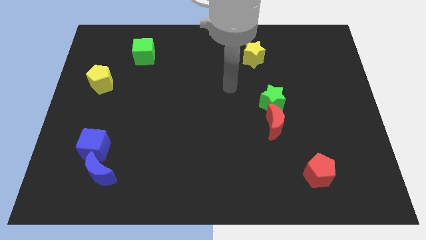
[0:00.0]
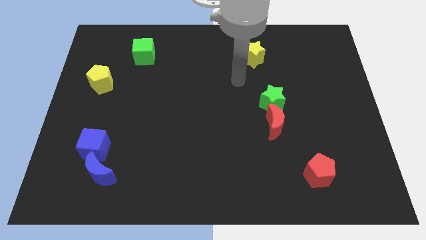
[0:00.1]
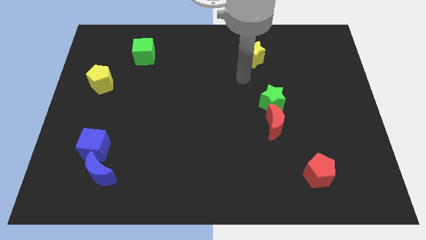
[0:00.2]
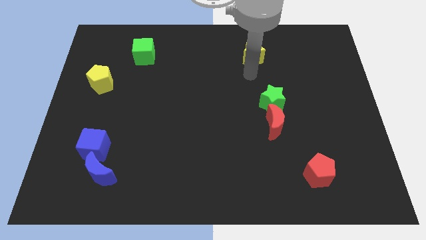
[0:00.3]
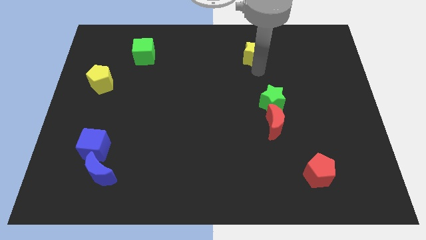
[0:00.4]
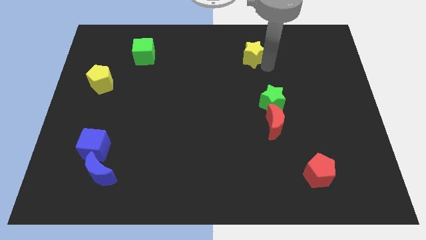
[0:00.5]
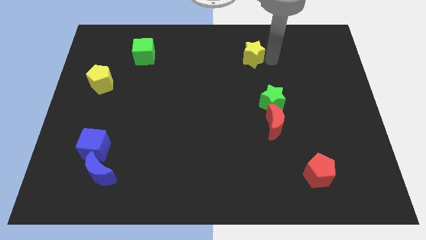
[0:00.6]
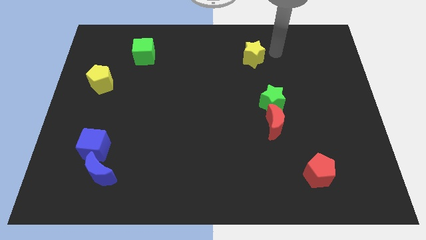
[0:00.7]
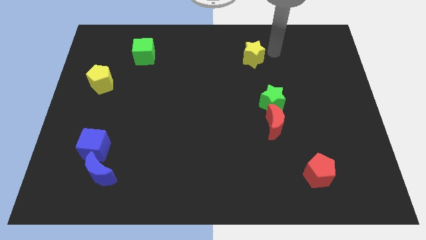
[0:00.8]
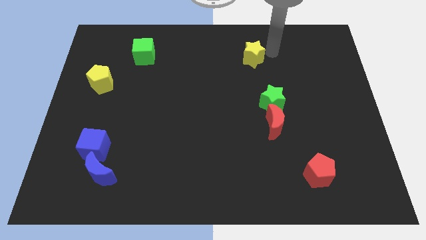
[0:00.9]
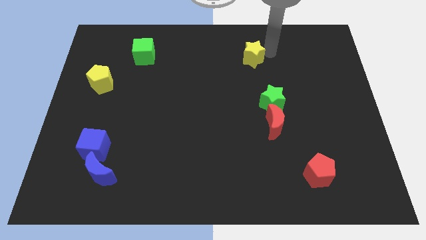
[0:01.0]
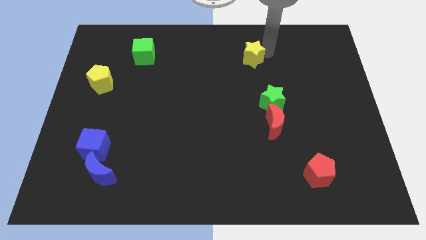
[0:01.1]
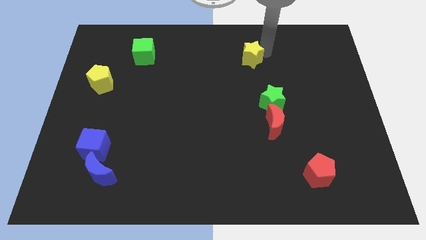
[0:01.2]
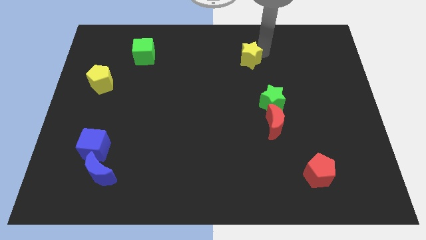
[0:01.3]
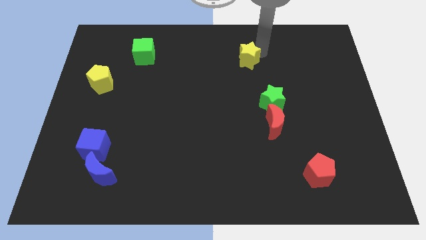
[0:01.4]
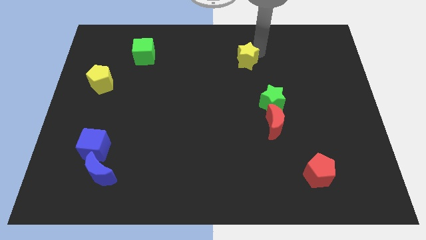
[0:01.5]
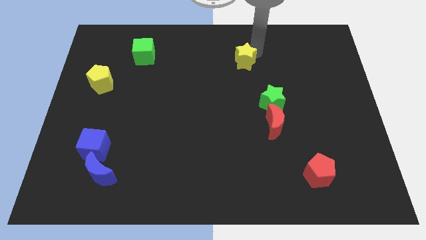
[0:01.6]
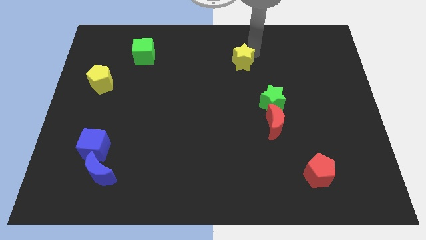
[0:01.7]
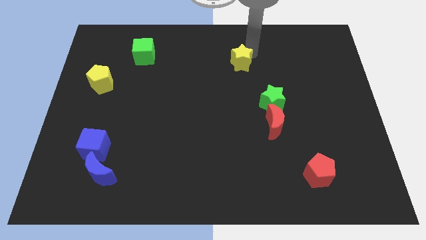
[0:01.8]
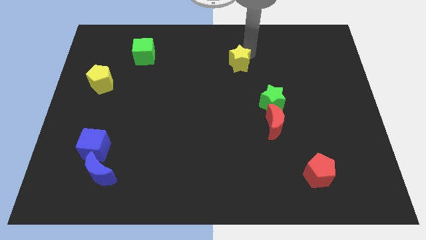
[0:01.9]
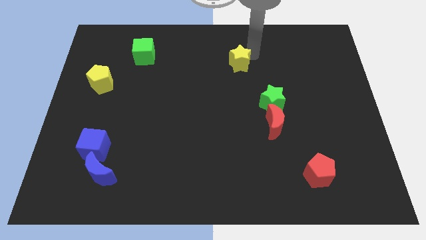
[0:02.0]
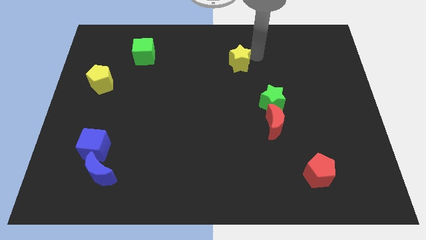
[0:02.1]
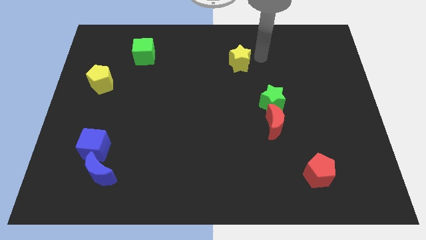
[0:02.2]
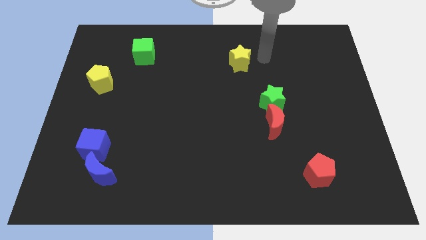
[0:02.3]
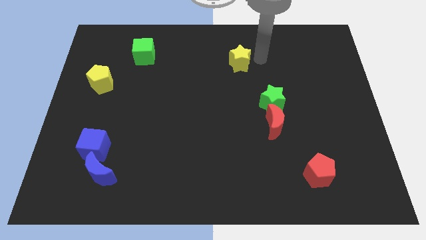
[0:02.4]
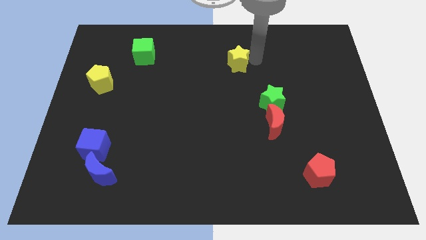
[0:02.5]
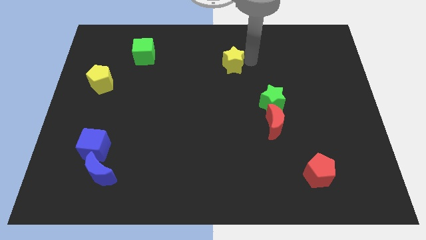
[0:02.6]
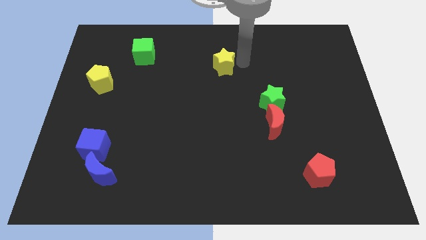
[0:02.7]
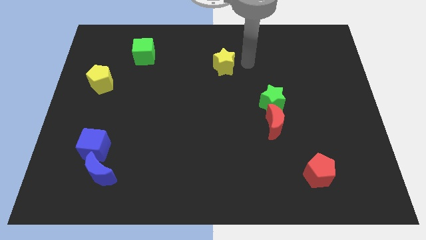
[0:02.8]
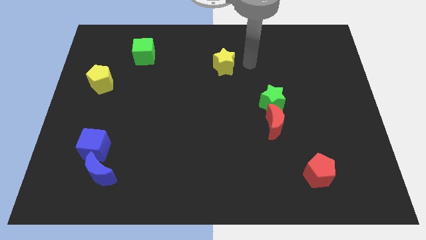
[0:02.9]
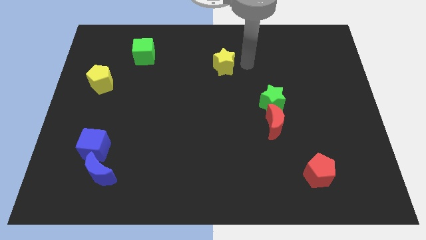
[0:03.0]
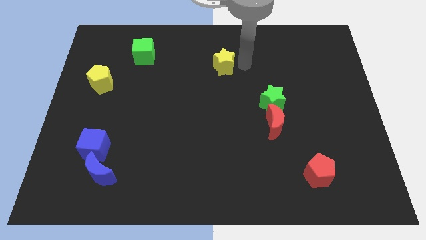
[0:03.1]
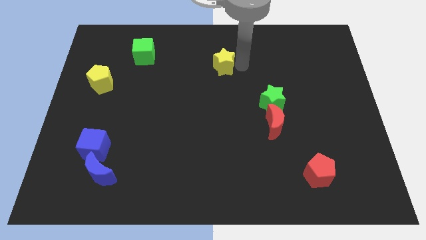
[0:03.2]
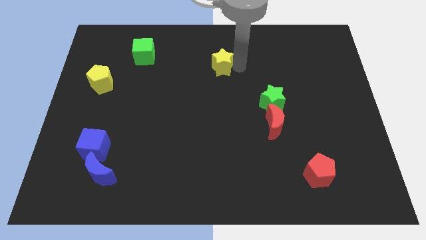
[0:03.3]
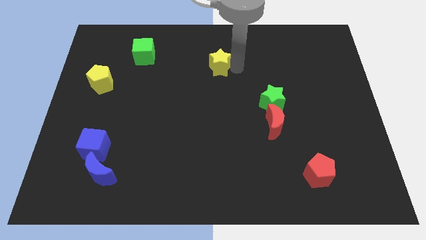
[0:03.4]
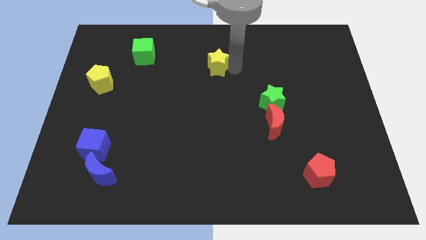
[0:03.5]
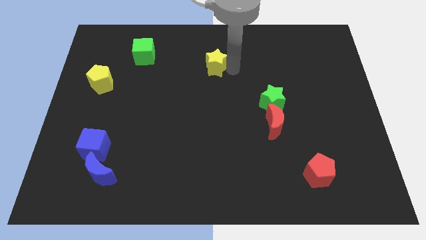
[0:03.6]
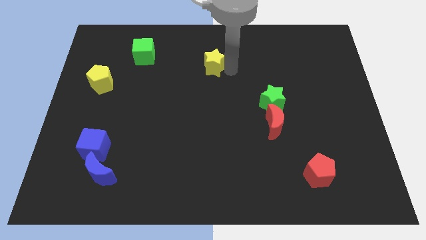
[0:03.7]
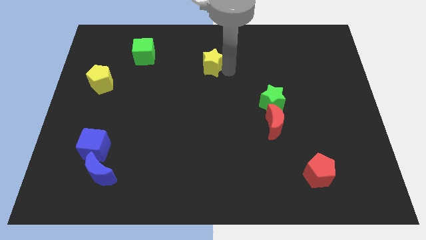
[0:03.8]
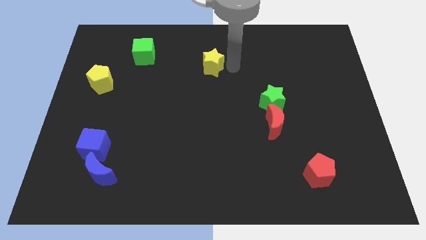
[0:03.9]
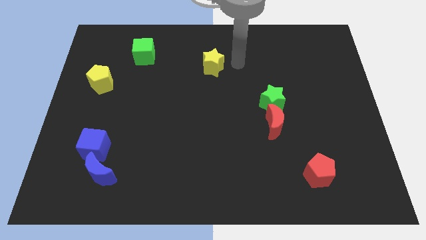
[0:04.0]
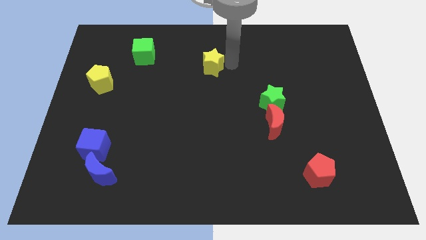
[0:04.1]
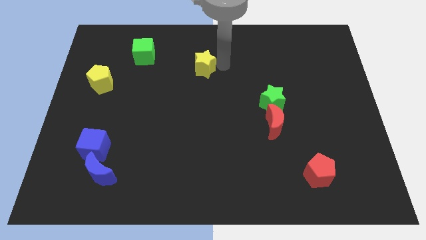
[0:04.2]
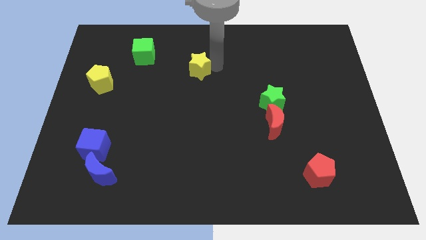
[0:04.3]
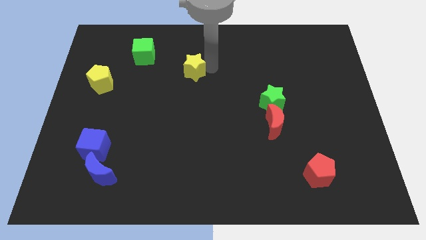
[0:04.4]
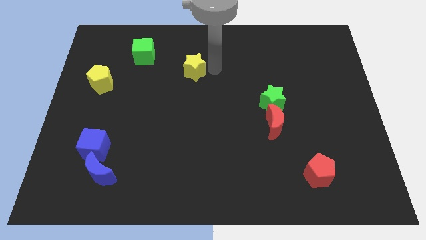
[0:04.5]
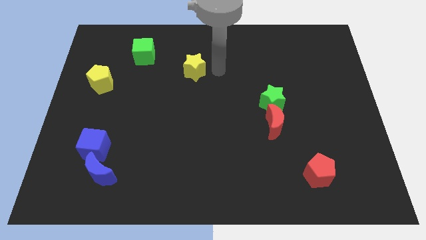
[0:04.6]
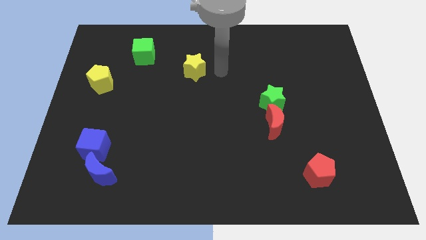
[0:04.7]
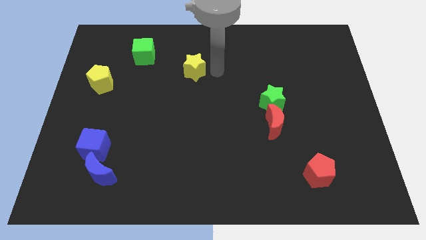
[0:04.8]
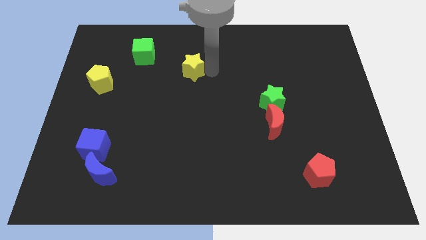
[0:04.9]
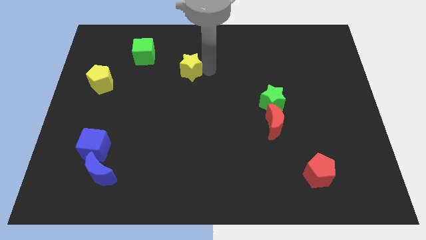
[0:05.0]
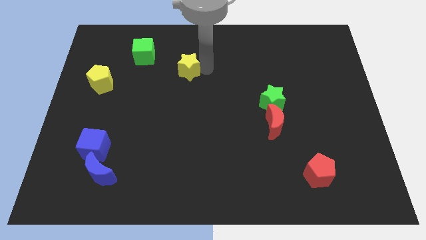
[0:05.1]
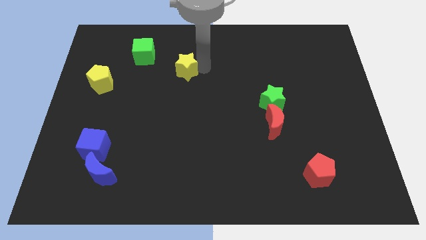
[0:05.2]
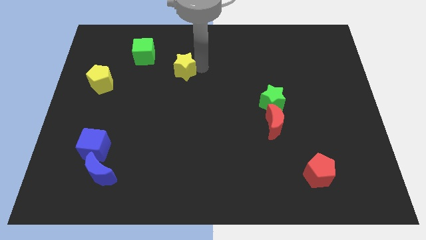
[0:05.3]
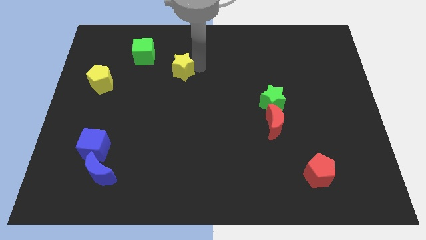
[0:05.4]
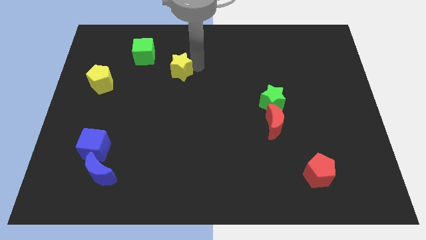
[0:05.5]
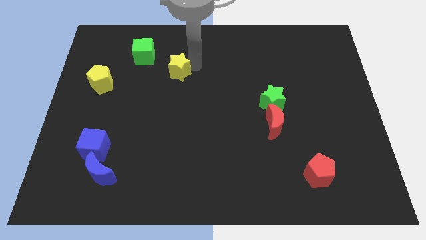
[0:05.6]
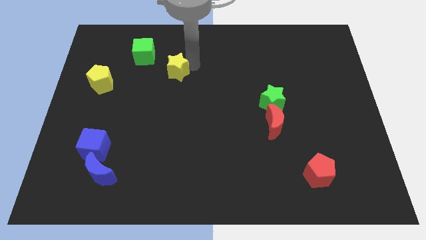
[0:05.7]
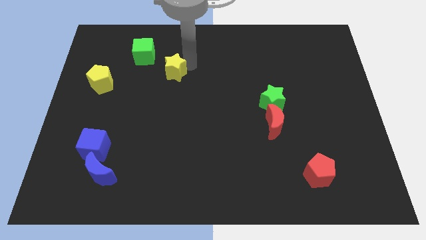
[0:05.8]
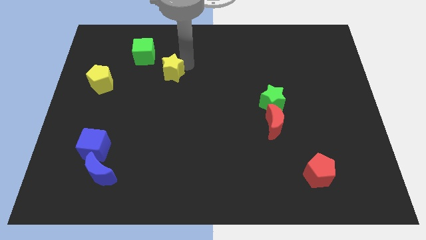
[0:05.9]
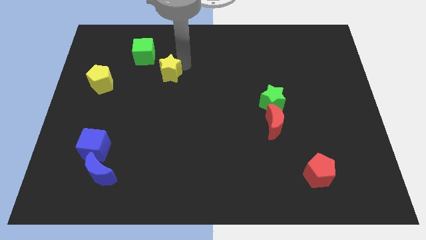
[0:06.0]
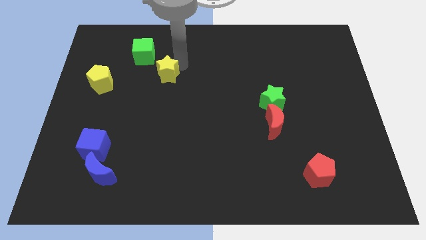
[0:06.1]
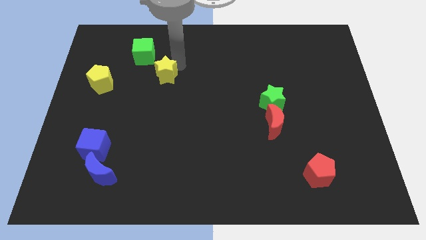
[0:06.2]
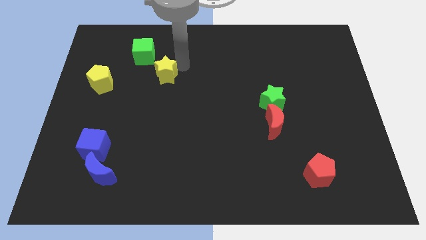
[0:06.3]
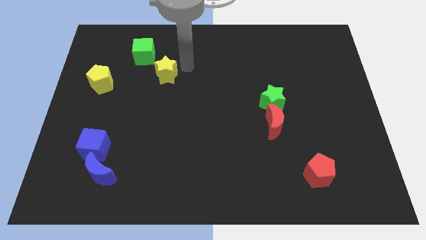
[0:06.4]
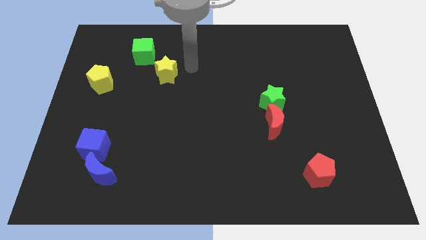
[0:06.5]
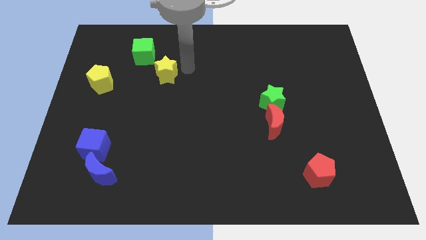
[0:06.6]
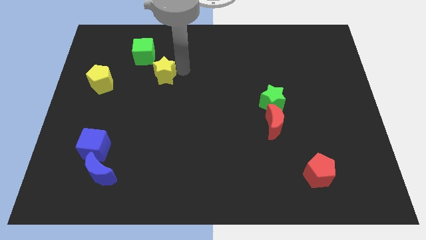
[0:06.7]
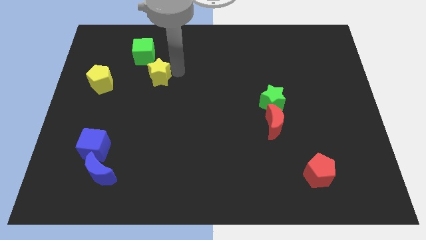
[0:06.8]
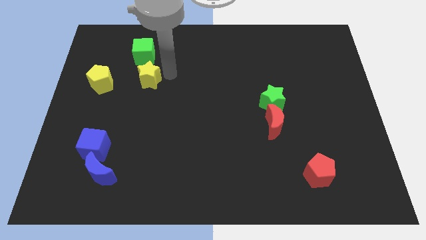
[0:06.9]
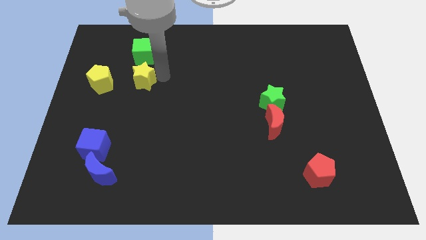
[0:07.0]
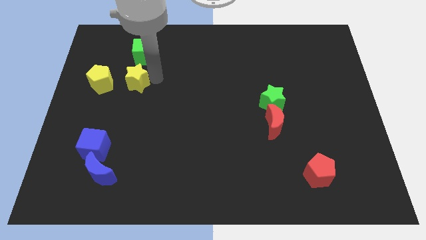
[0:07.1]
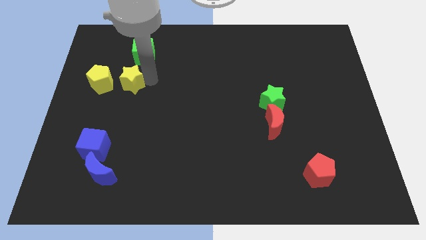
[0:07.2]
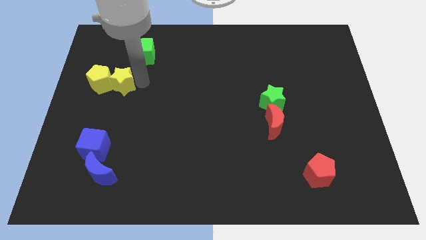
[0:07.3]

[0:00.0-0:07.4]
slide the yellow star to the yellow pentagon
